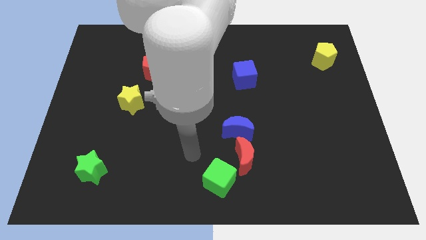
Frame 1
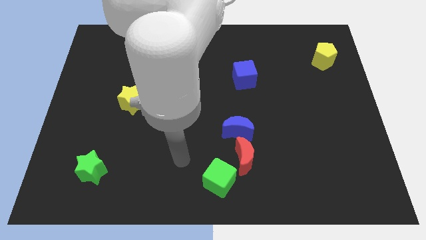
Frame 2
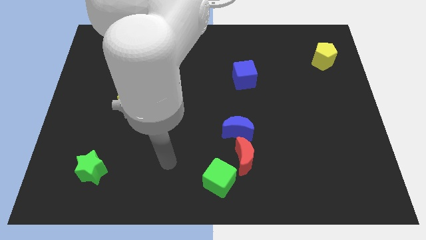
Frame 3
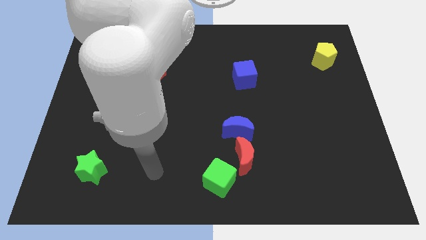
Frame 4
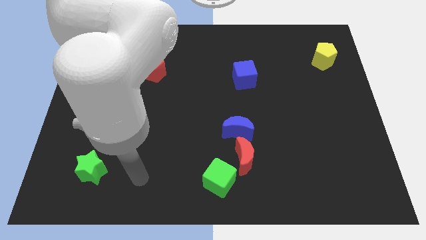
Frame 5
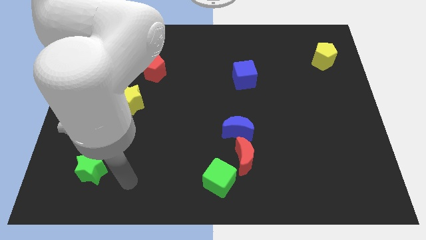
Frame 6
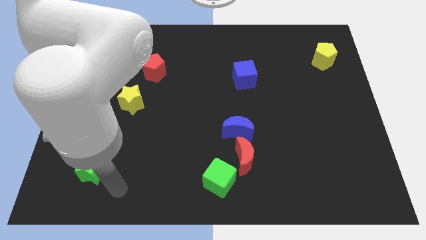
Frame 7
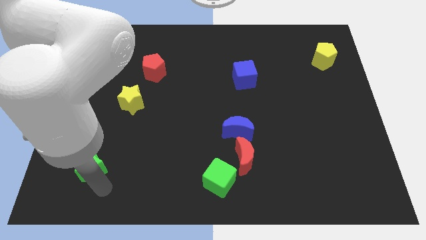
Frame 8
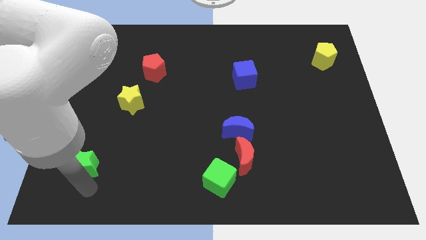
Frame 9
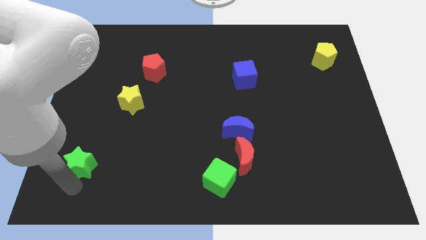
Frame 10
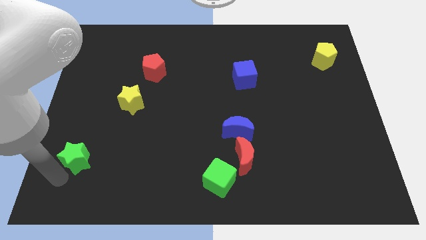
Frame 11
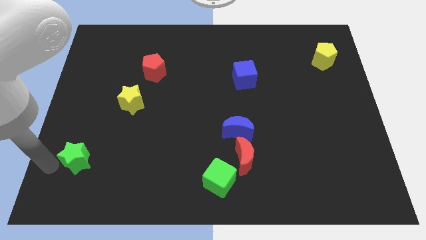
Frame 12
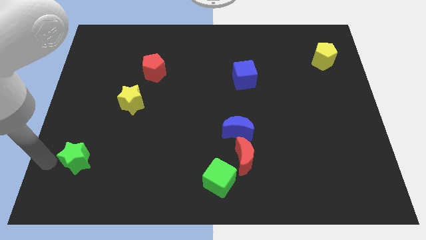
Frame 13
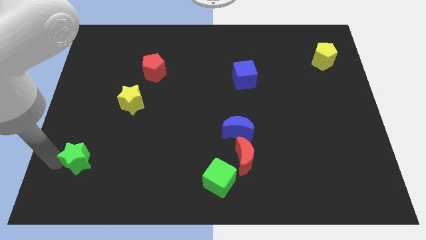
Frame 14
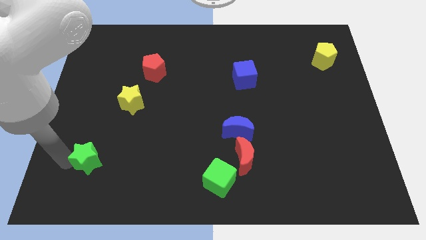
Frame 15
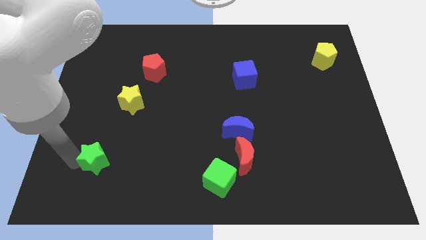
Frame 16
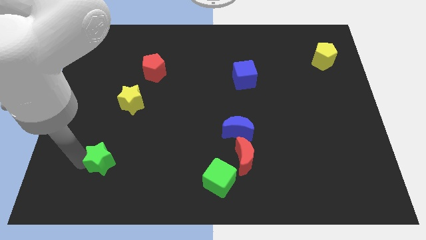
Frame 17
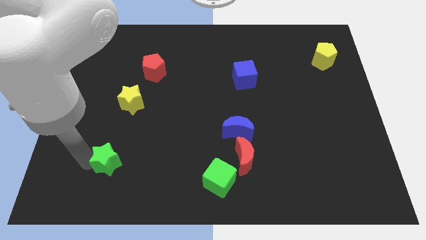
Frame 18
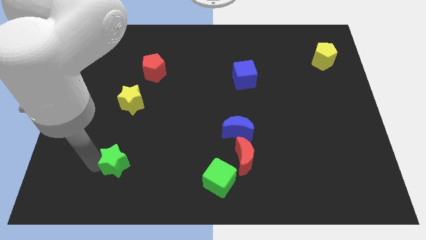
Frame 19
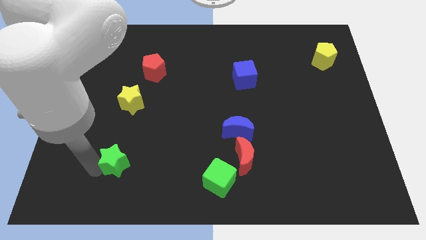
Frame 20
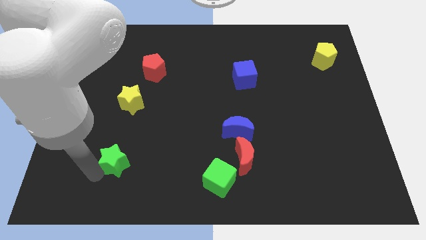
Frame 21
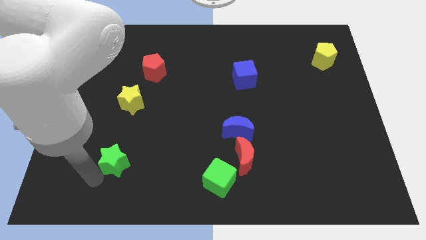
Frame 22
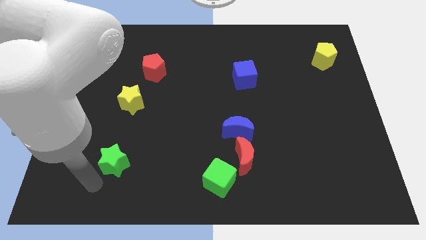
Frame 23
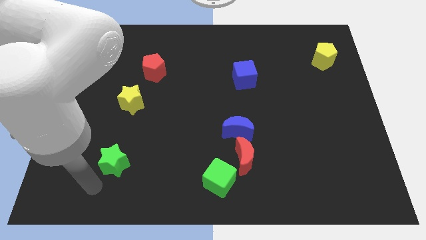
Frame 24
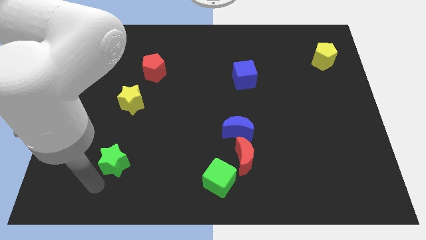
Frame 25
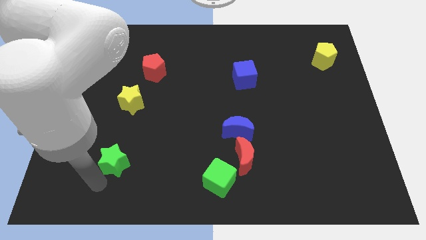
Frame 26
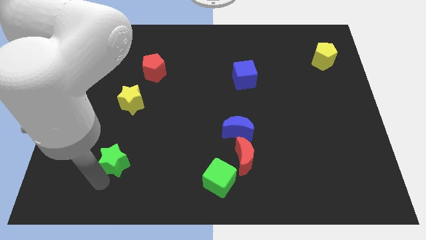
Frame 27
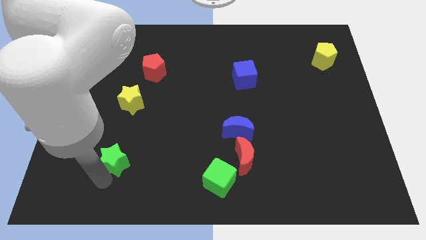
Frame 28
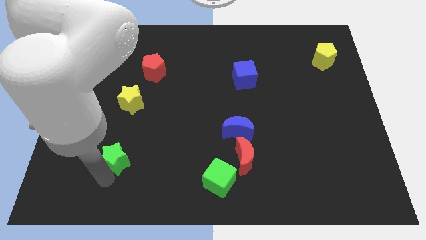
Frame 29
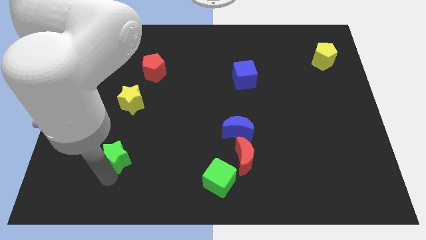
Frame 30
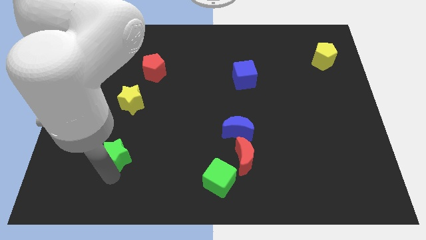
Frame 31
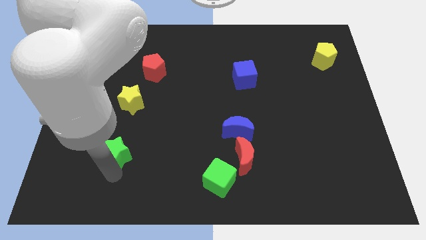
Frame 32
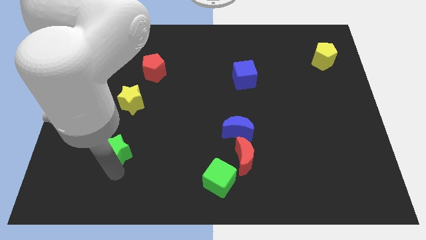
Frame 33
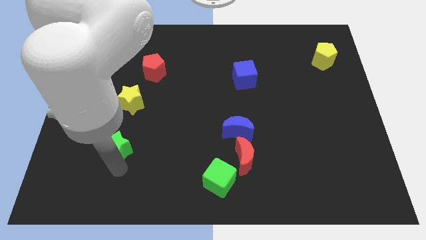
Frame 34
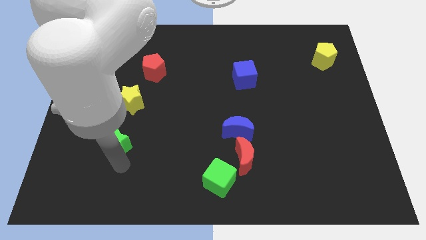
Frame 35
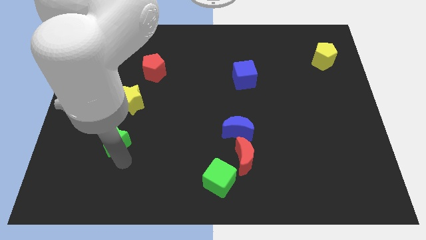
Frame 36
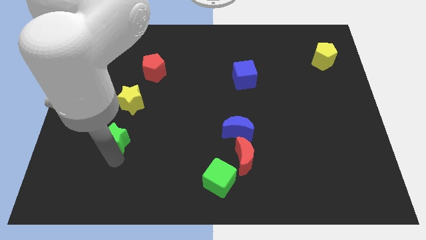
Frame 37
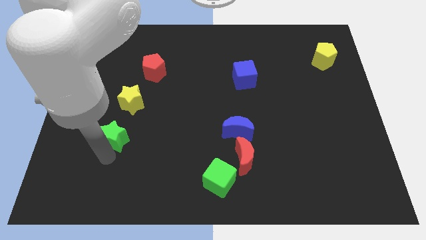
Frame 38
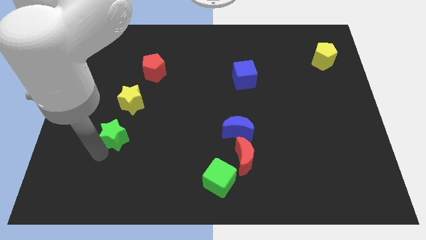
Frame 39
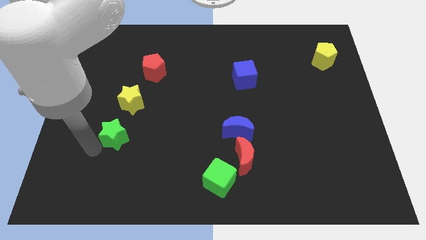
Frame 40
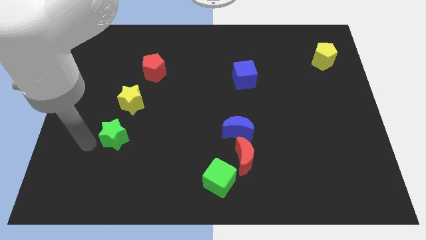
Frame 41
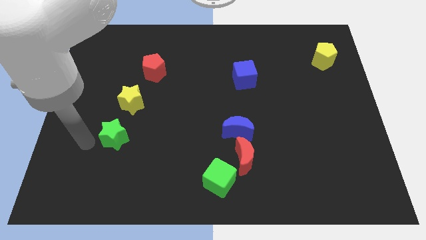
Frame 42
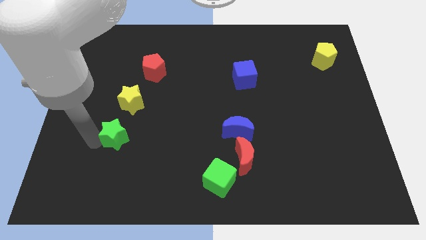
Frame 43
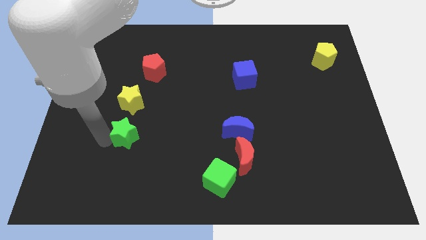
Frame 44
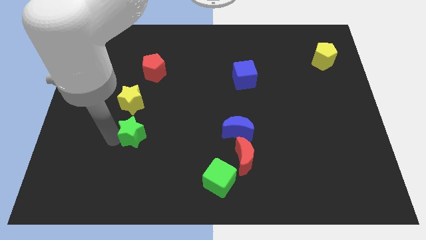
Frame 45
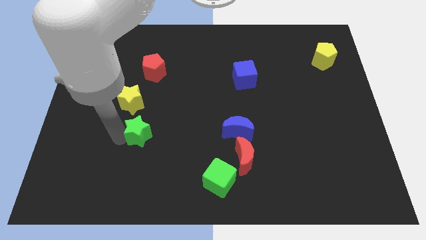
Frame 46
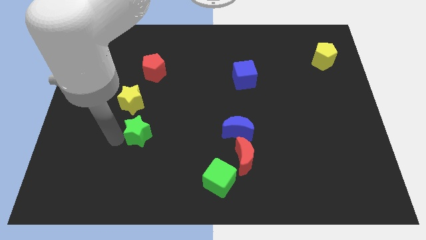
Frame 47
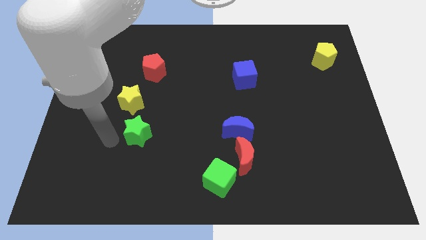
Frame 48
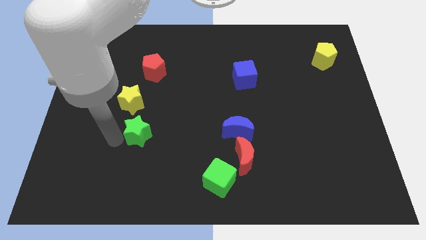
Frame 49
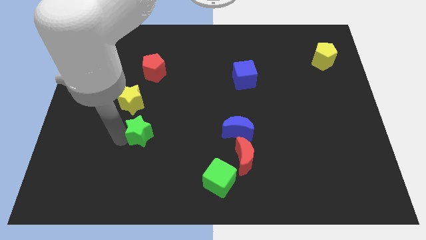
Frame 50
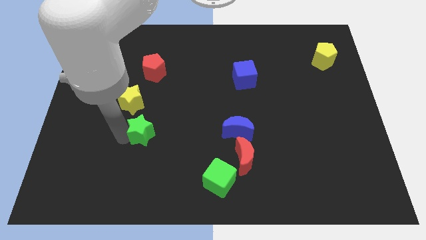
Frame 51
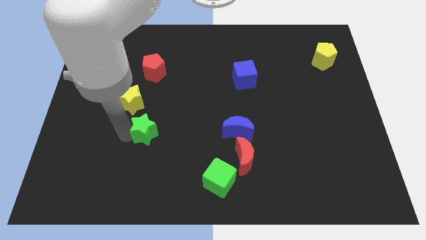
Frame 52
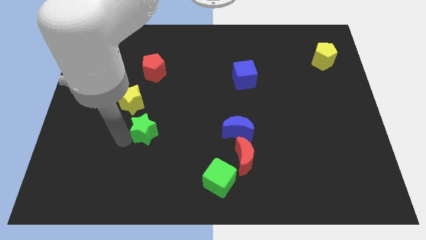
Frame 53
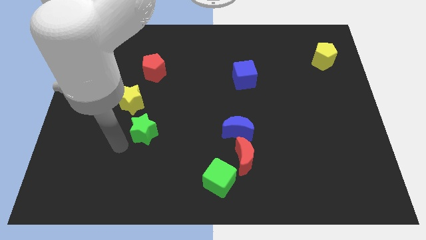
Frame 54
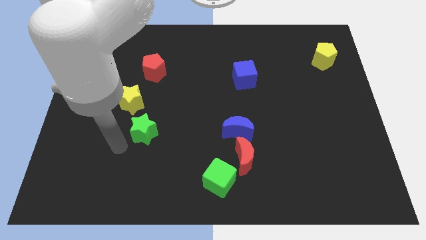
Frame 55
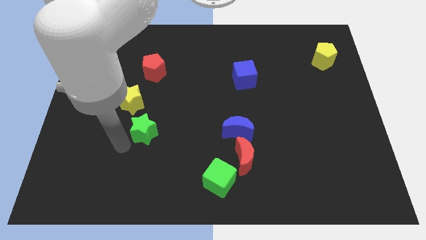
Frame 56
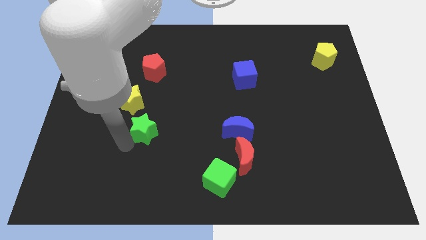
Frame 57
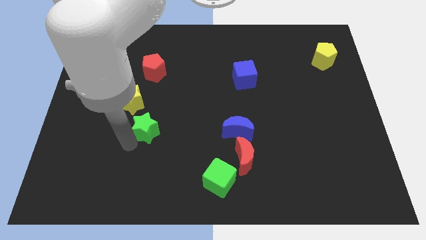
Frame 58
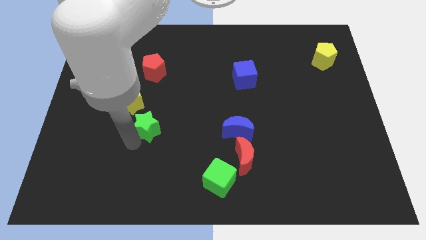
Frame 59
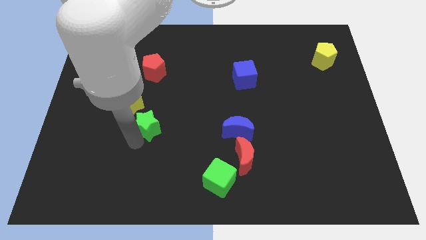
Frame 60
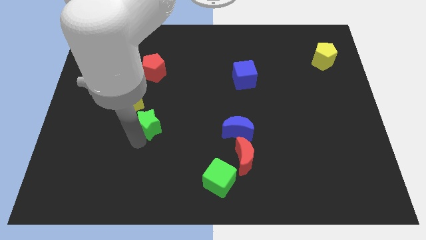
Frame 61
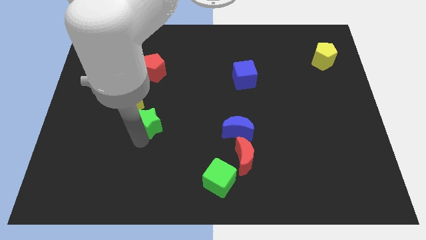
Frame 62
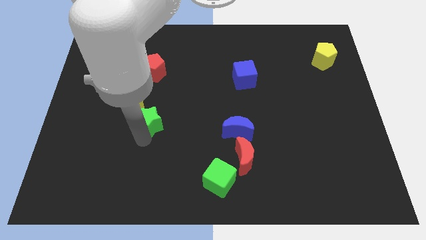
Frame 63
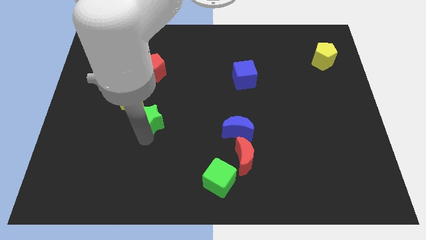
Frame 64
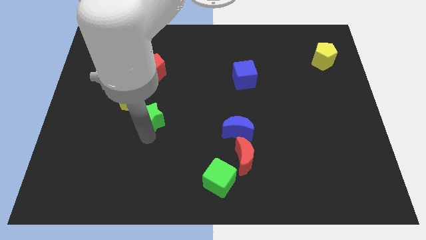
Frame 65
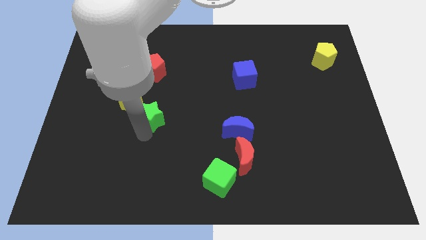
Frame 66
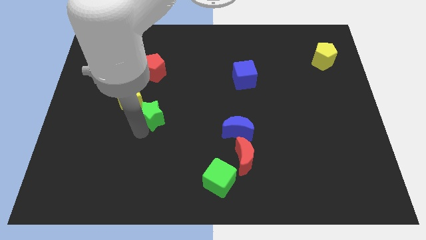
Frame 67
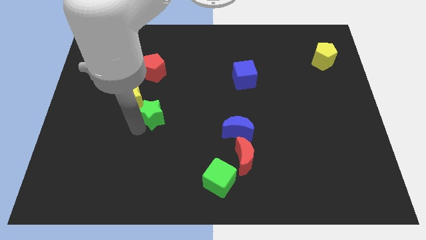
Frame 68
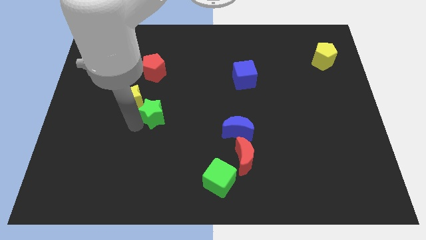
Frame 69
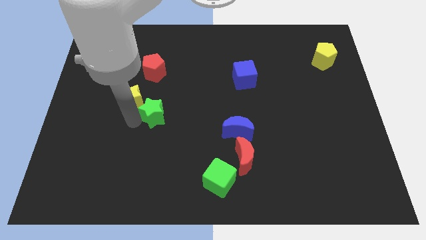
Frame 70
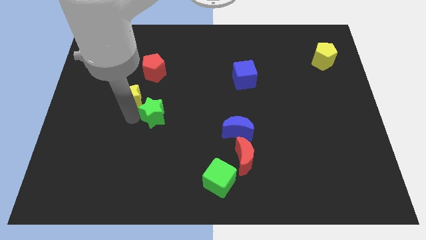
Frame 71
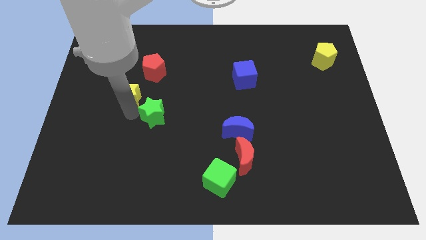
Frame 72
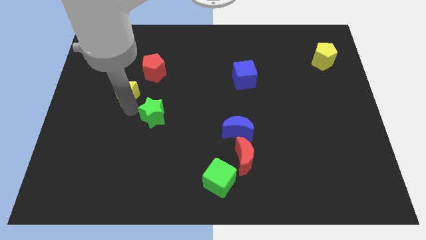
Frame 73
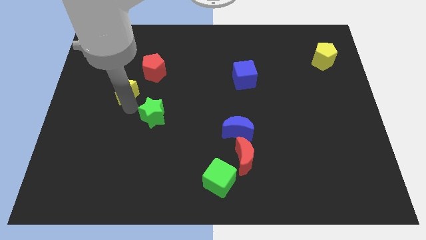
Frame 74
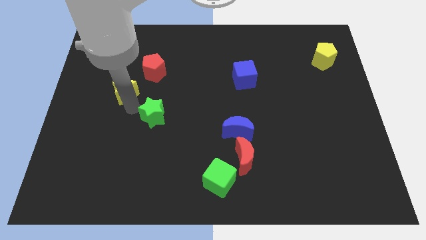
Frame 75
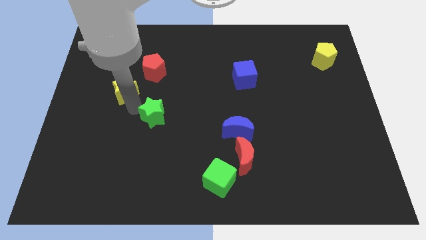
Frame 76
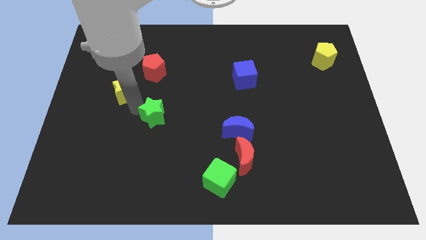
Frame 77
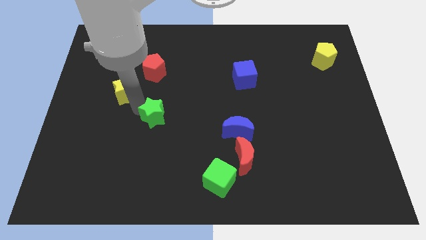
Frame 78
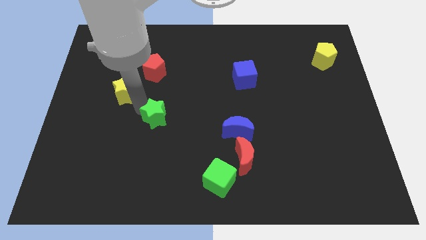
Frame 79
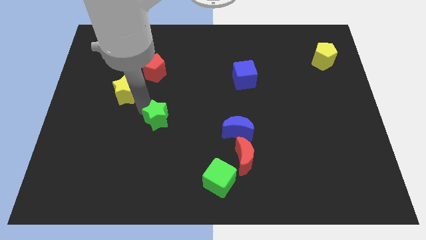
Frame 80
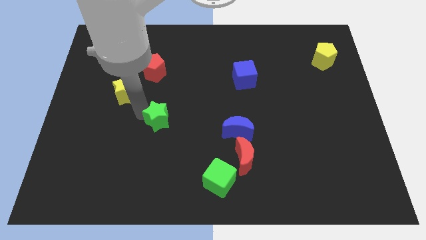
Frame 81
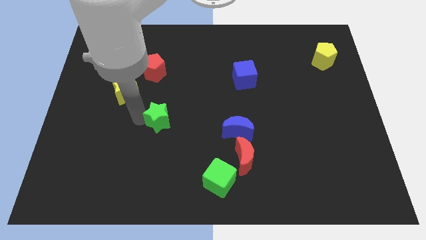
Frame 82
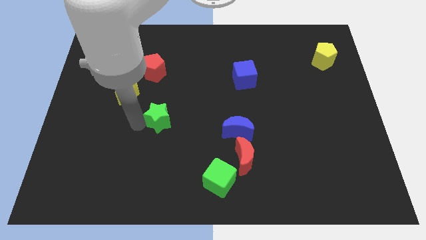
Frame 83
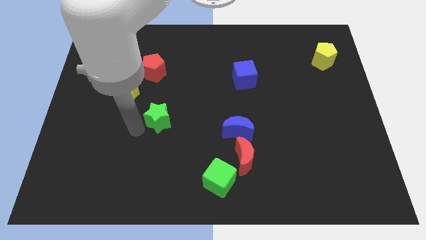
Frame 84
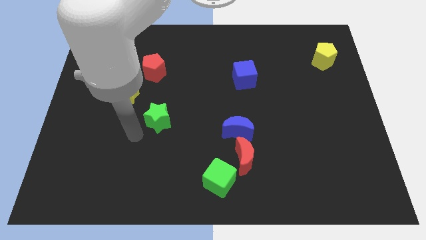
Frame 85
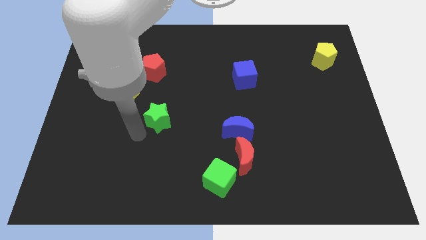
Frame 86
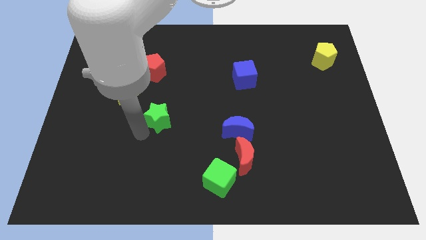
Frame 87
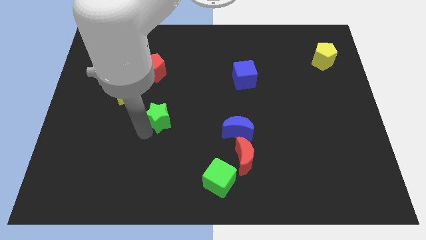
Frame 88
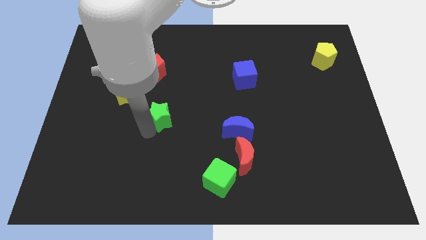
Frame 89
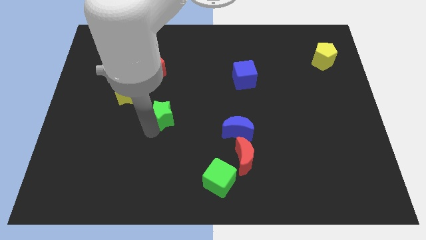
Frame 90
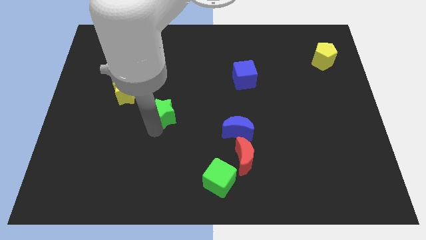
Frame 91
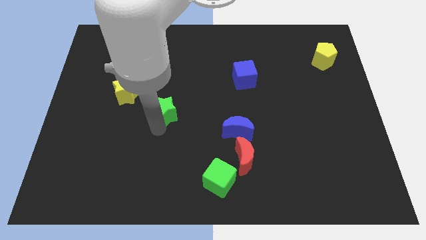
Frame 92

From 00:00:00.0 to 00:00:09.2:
move the green star up and then to the right
